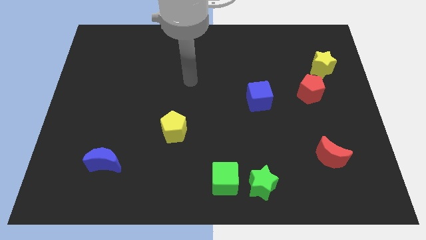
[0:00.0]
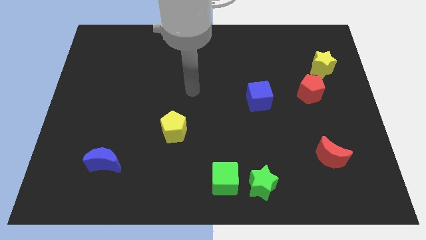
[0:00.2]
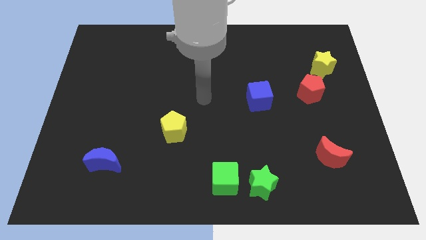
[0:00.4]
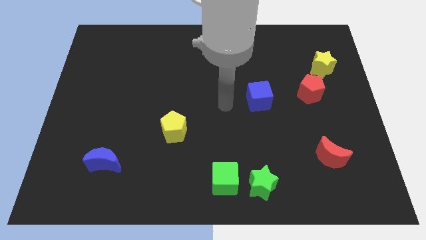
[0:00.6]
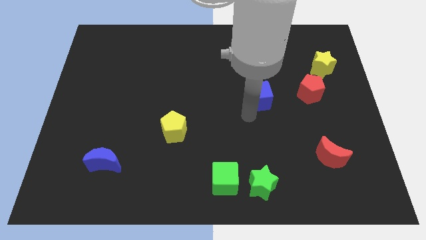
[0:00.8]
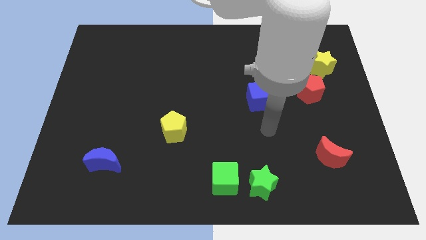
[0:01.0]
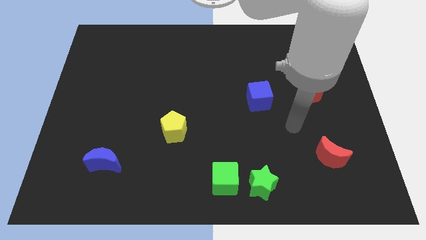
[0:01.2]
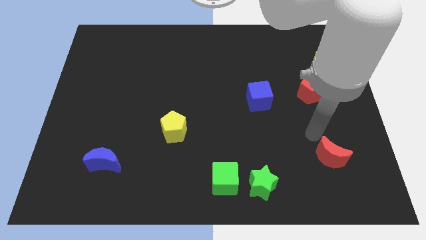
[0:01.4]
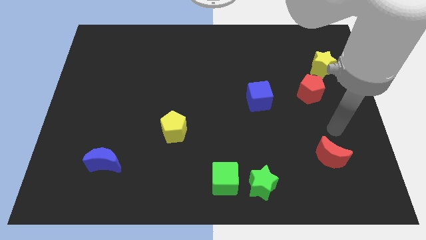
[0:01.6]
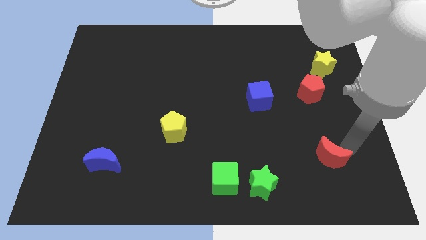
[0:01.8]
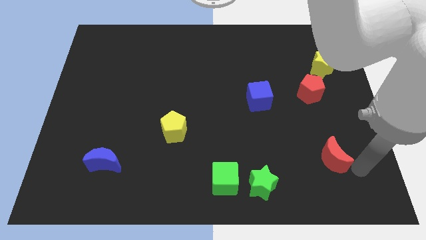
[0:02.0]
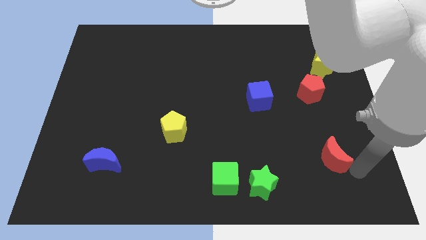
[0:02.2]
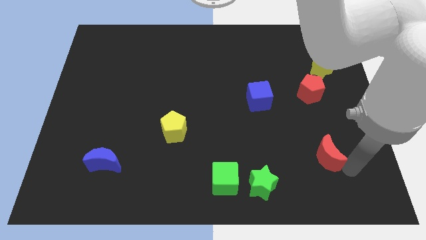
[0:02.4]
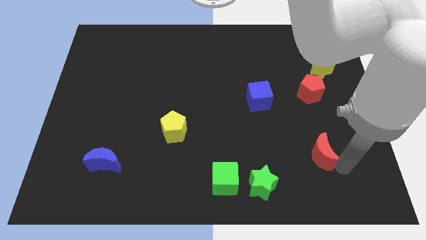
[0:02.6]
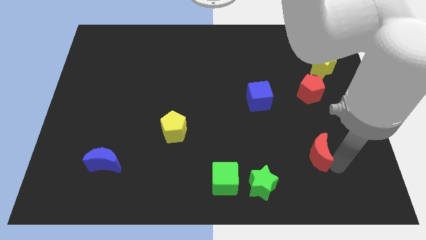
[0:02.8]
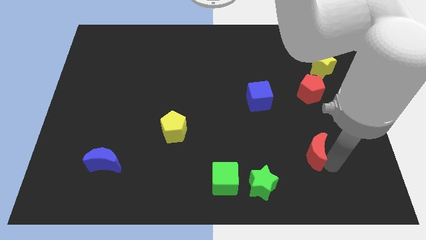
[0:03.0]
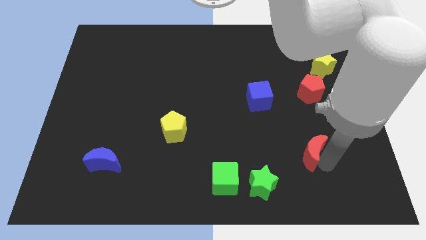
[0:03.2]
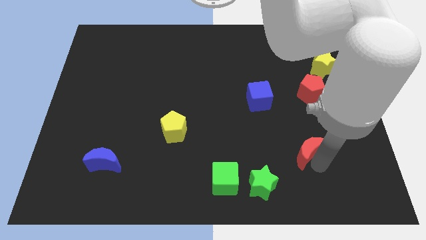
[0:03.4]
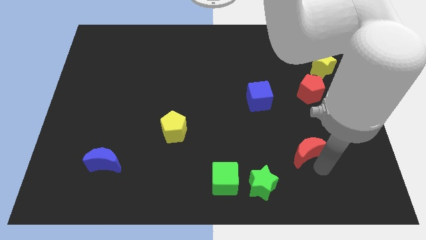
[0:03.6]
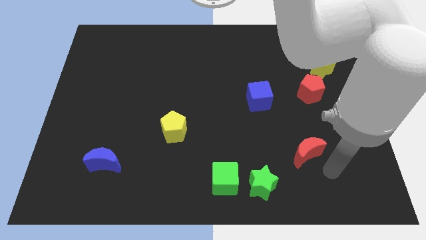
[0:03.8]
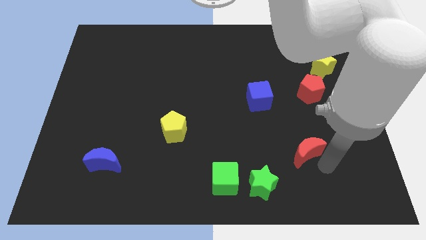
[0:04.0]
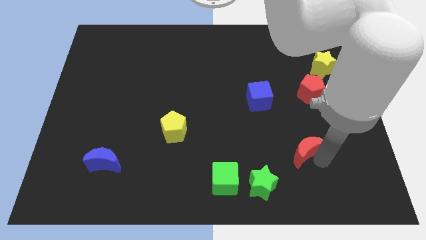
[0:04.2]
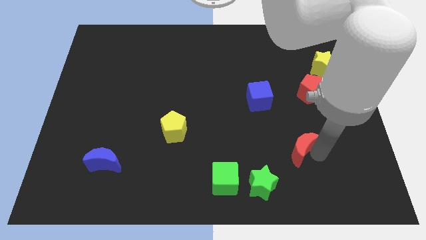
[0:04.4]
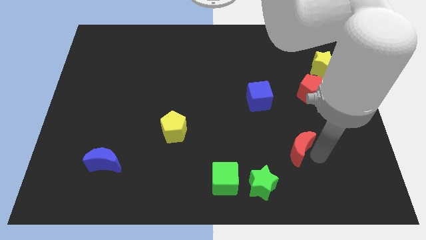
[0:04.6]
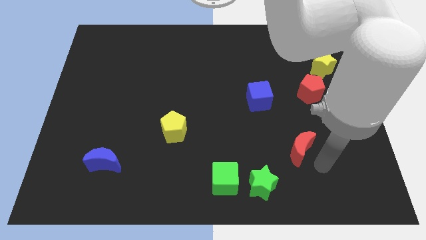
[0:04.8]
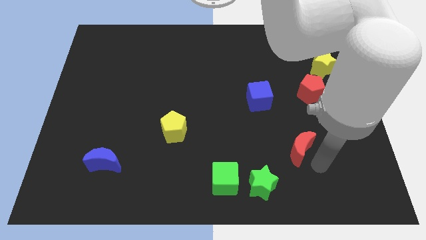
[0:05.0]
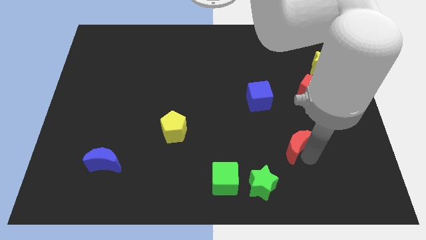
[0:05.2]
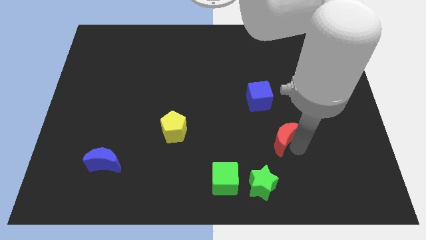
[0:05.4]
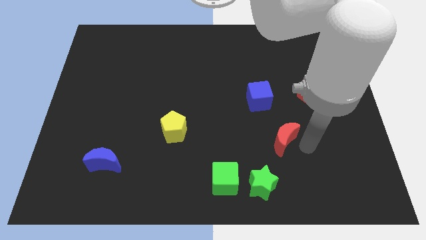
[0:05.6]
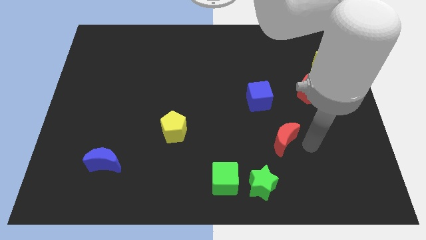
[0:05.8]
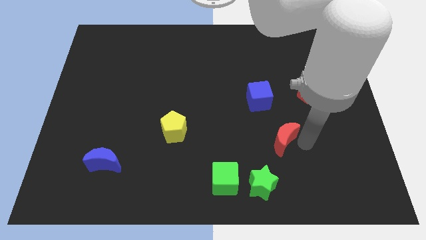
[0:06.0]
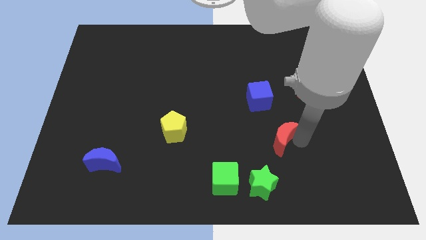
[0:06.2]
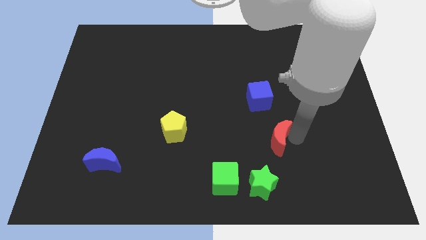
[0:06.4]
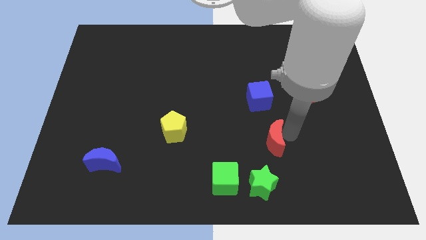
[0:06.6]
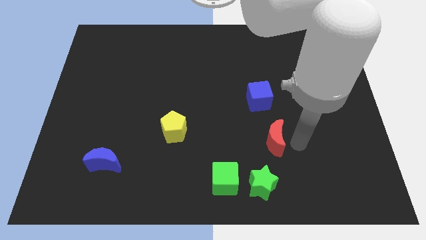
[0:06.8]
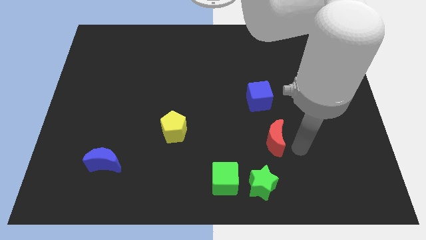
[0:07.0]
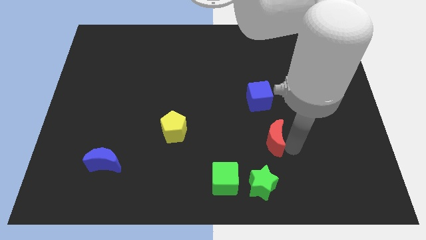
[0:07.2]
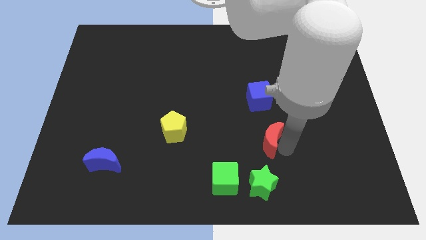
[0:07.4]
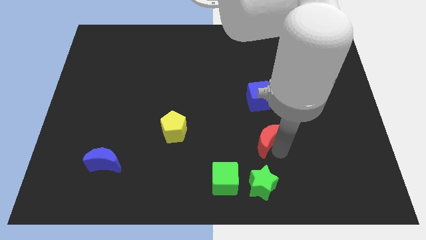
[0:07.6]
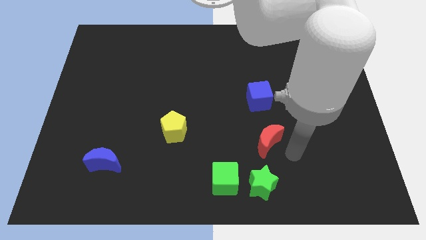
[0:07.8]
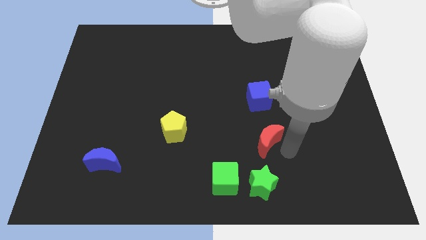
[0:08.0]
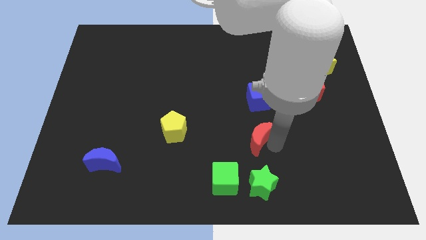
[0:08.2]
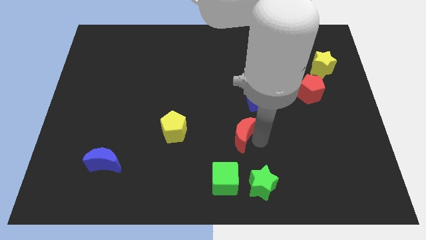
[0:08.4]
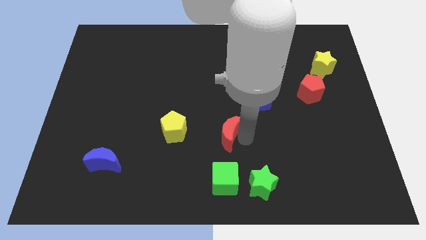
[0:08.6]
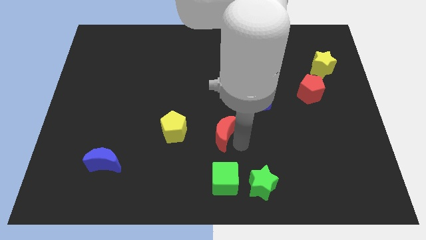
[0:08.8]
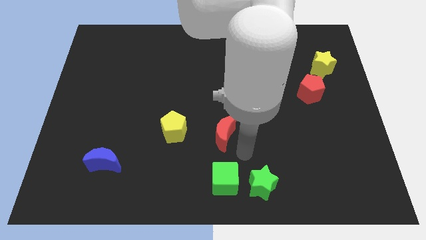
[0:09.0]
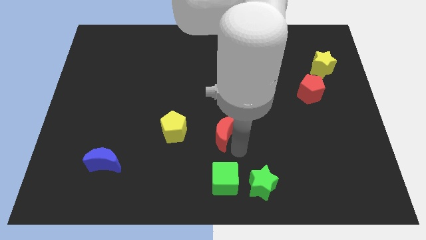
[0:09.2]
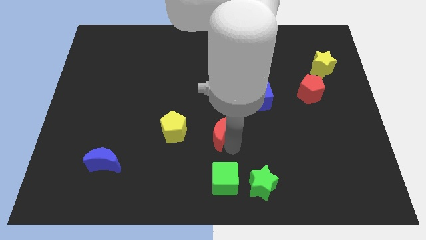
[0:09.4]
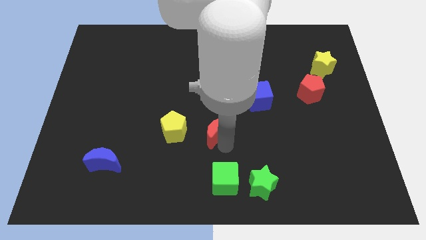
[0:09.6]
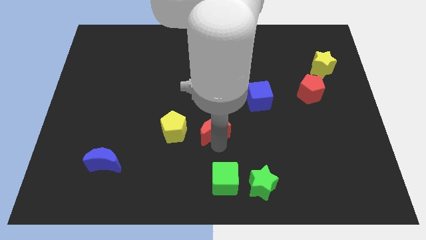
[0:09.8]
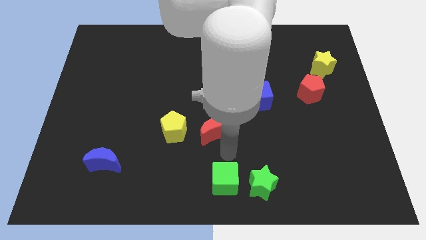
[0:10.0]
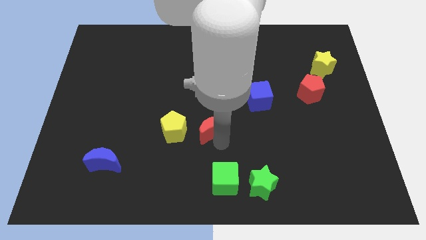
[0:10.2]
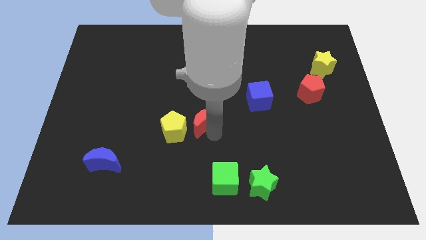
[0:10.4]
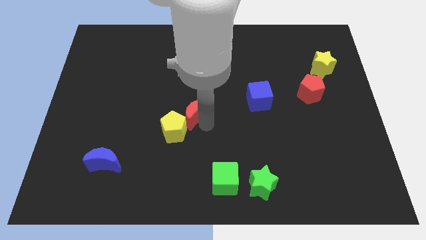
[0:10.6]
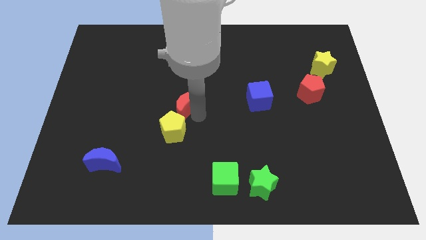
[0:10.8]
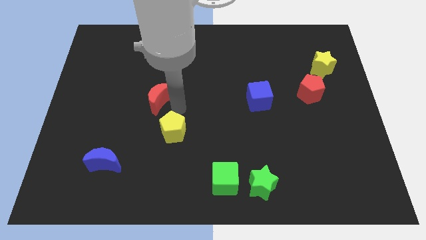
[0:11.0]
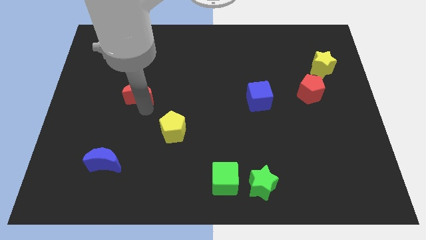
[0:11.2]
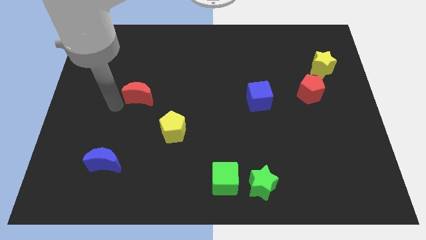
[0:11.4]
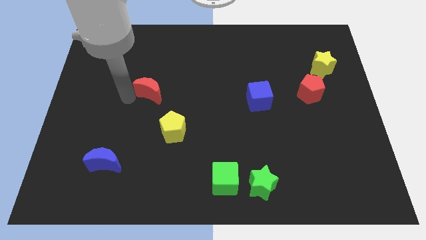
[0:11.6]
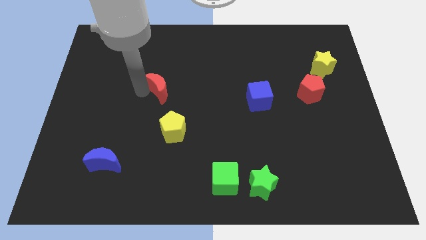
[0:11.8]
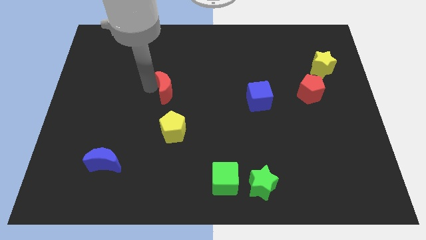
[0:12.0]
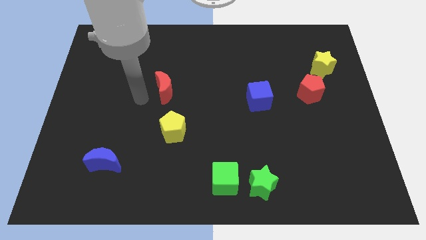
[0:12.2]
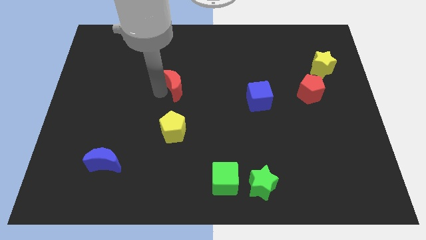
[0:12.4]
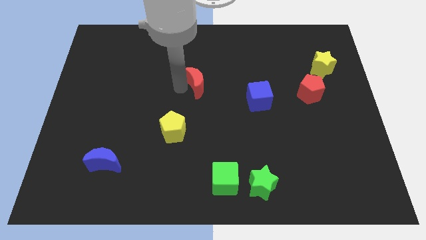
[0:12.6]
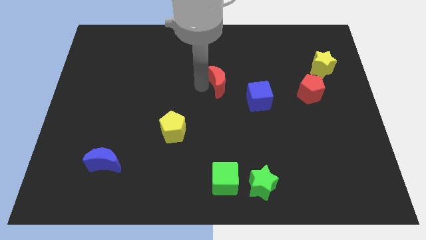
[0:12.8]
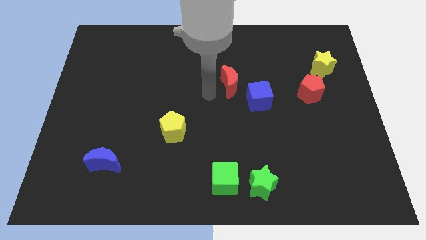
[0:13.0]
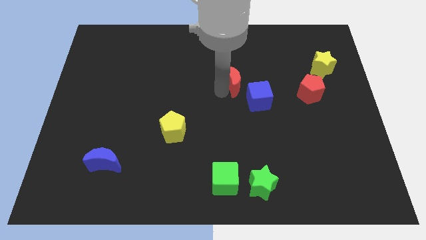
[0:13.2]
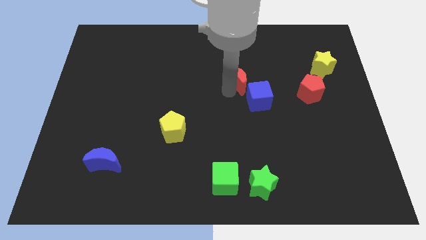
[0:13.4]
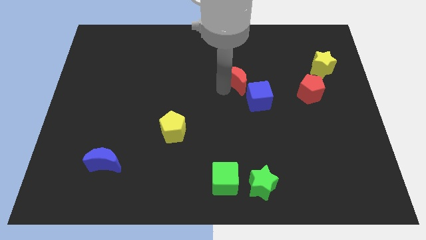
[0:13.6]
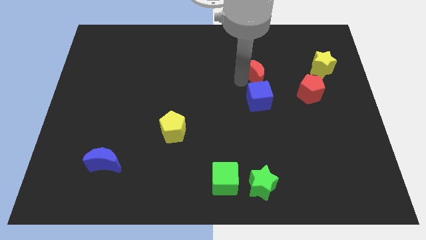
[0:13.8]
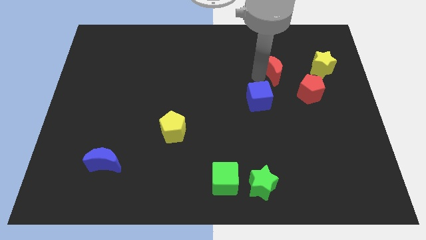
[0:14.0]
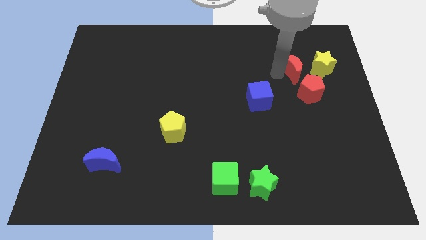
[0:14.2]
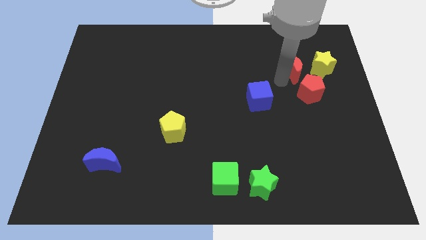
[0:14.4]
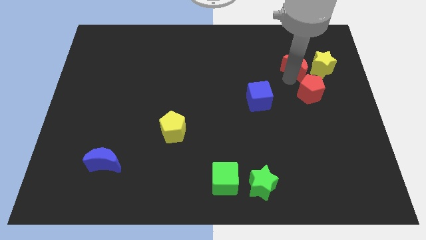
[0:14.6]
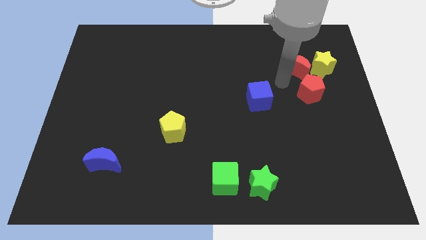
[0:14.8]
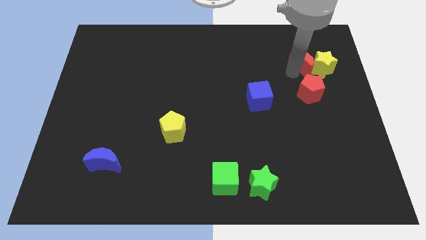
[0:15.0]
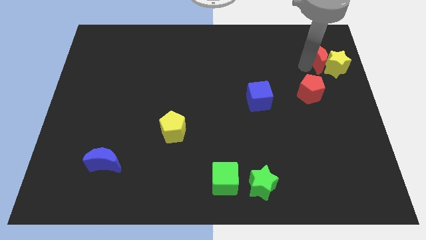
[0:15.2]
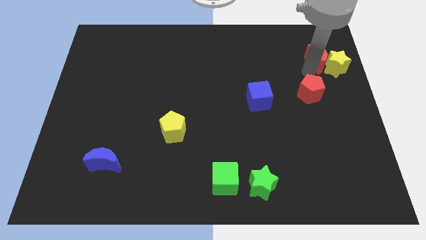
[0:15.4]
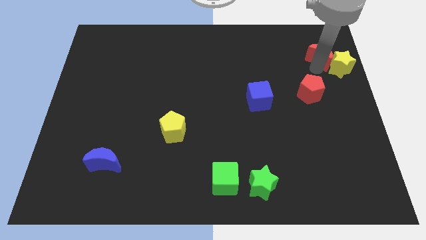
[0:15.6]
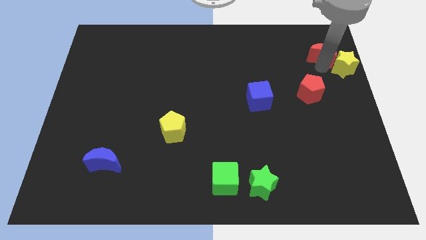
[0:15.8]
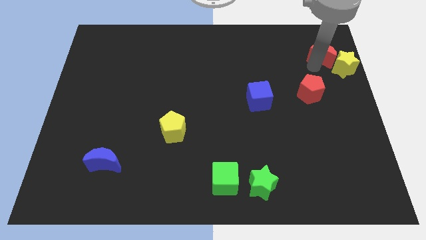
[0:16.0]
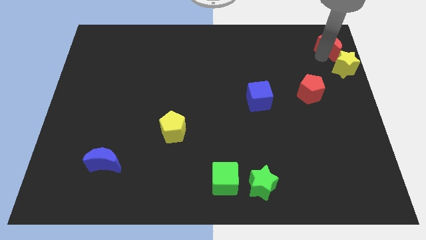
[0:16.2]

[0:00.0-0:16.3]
slide the red moon to the top right of the board
